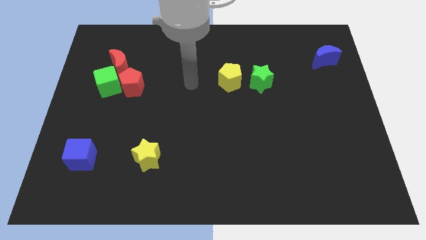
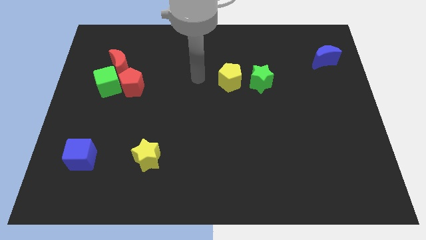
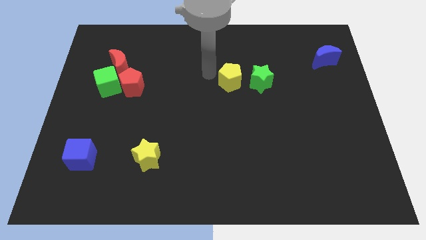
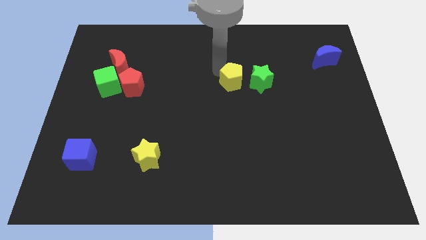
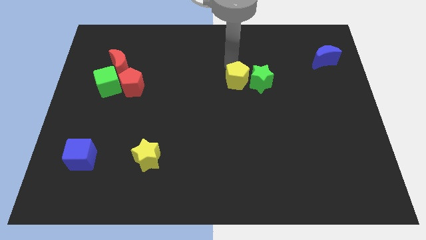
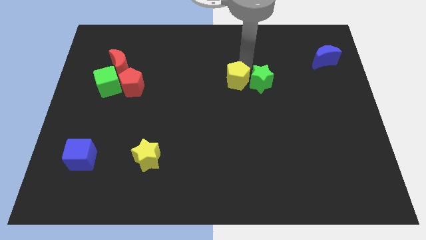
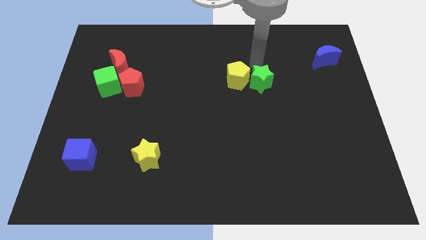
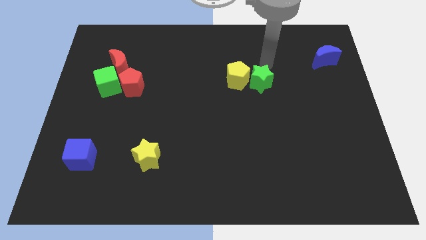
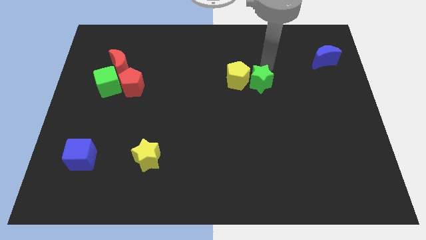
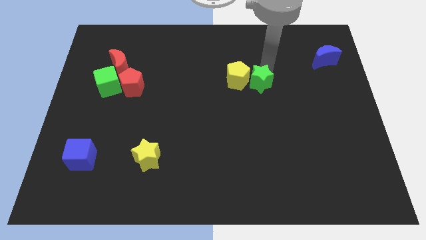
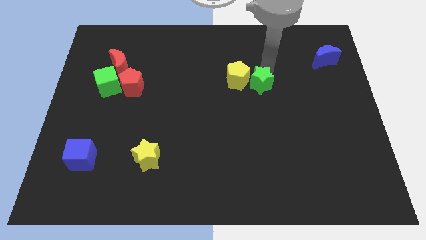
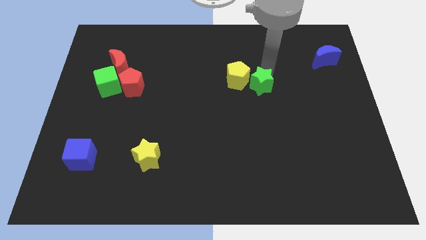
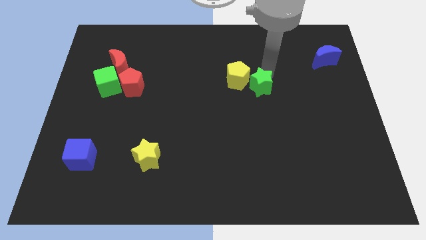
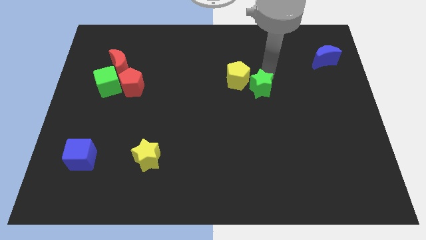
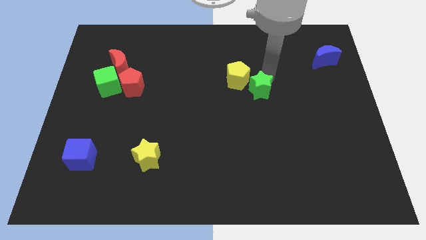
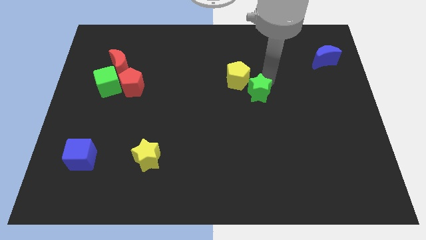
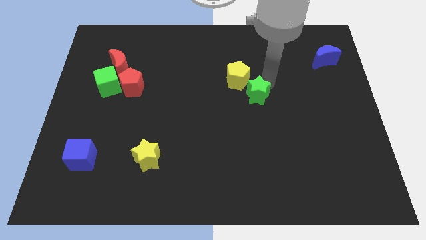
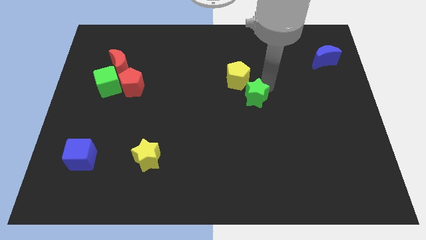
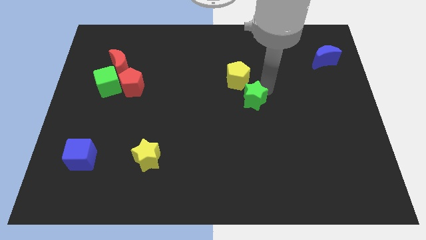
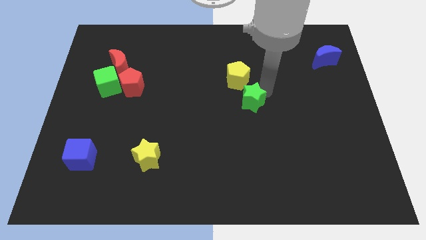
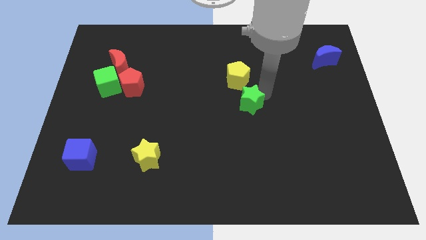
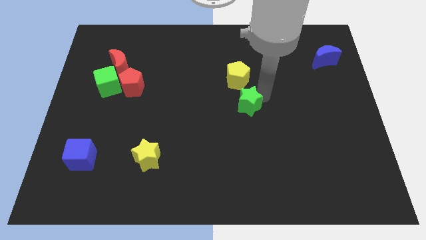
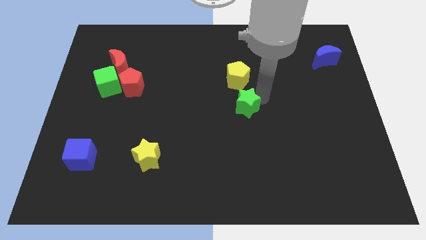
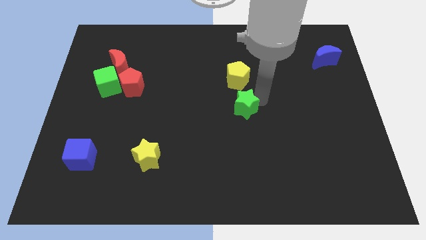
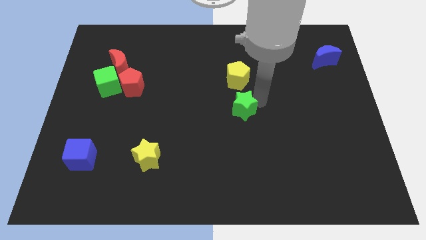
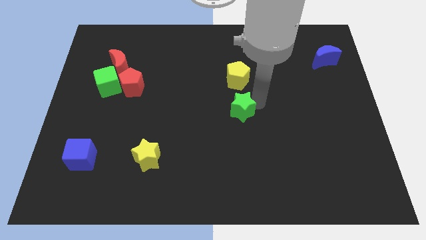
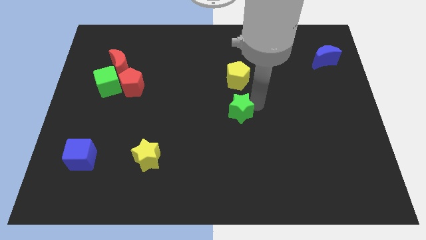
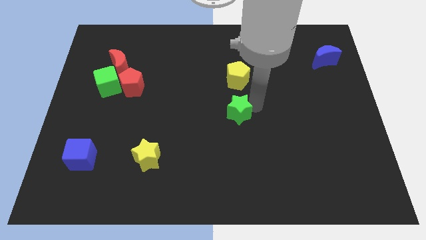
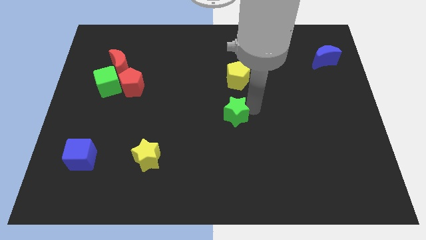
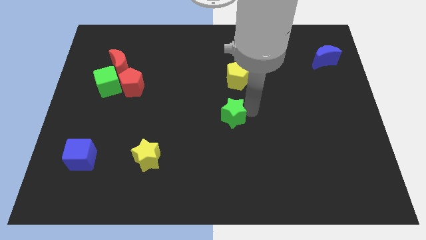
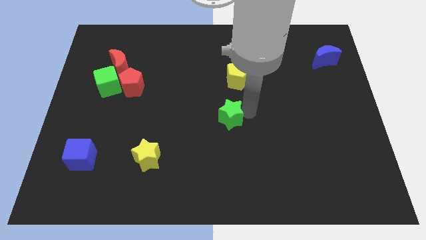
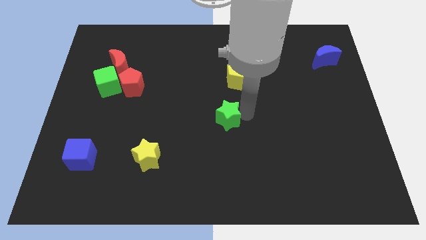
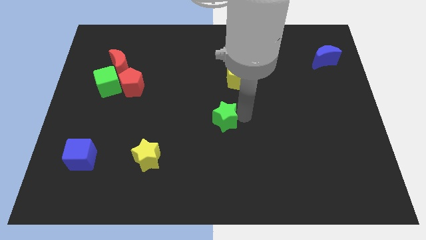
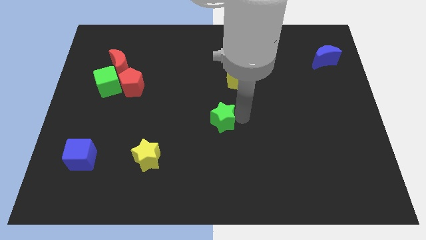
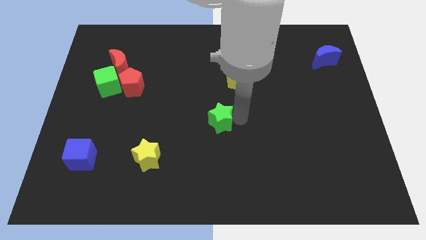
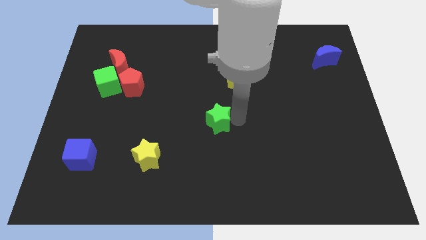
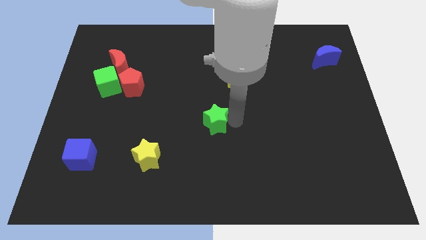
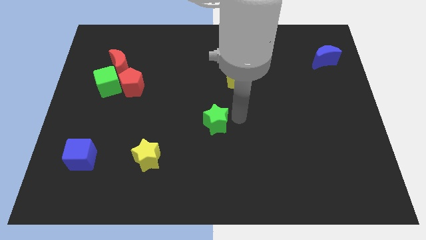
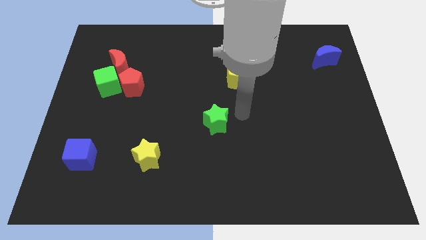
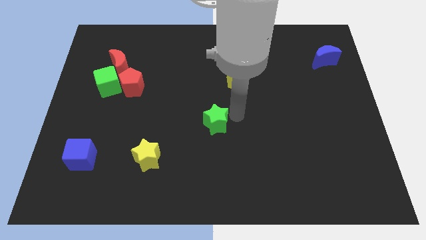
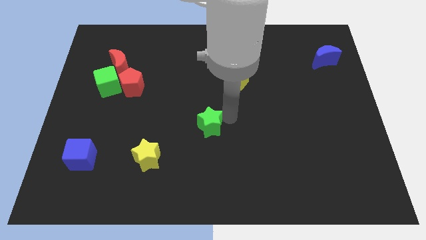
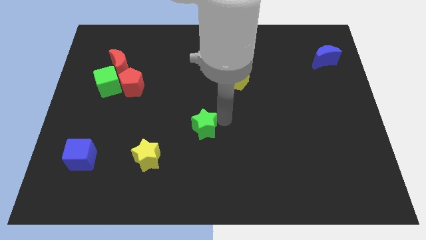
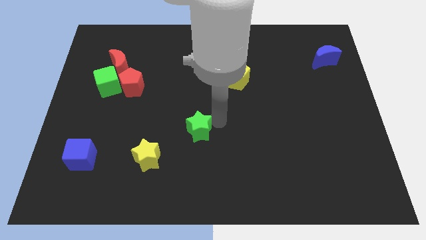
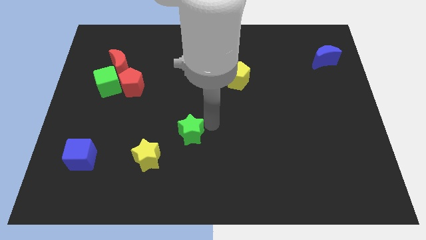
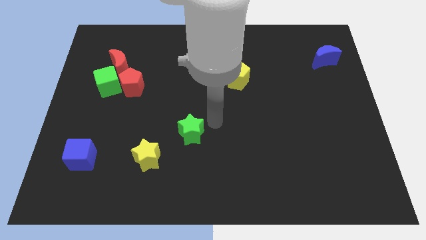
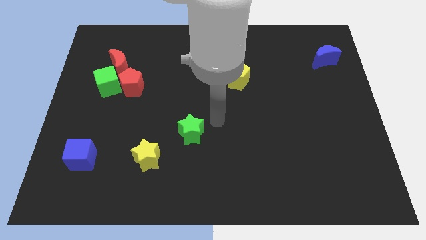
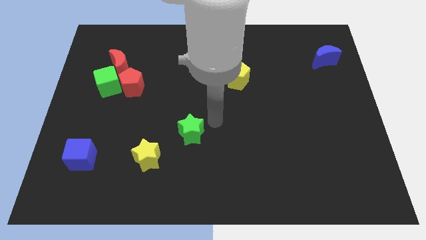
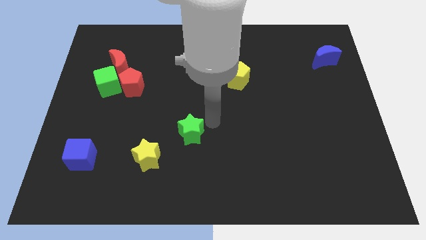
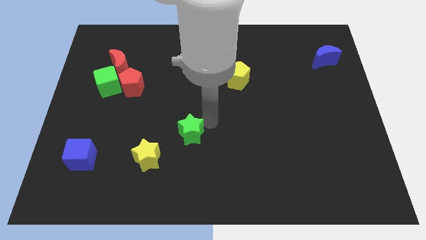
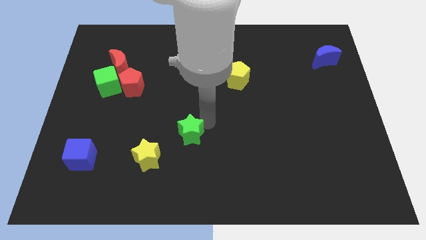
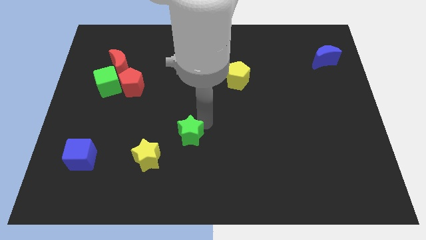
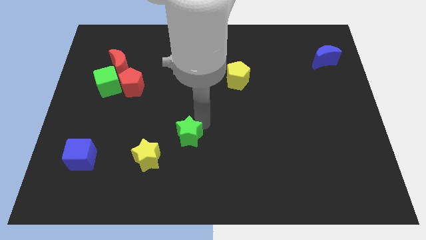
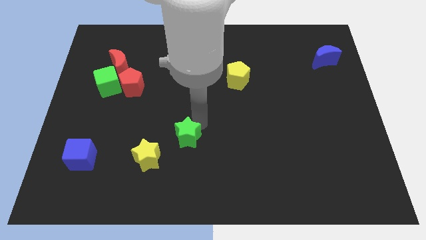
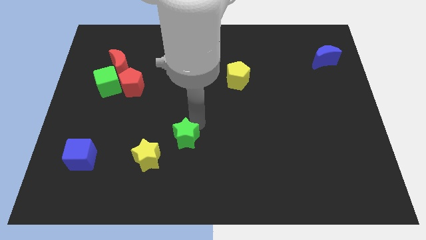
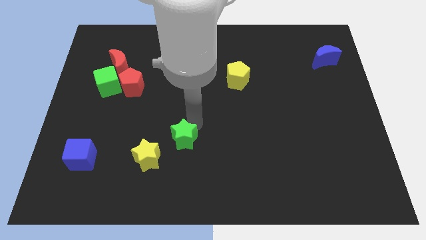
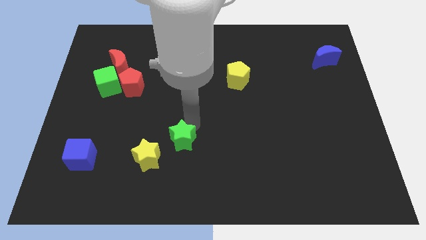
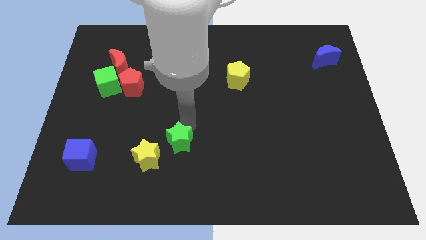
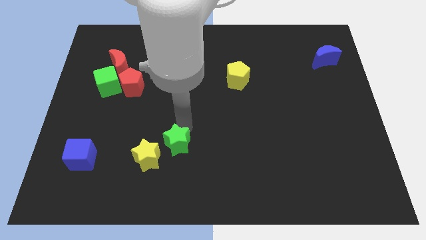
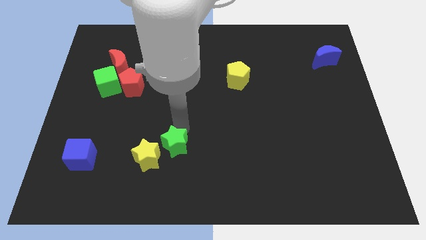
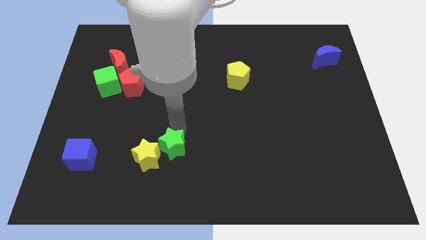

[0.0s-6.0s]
slide the green star towards the yellow star

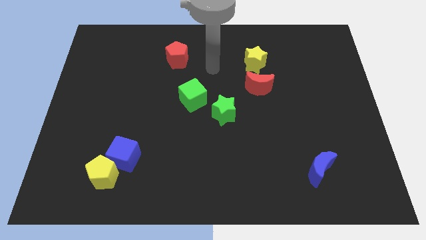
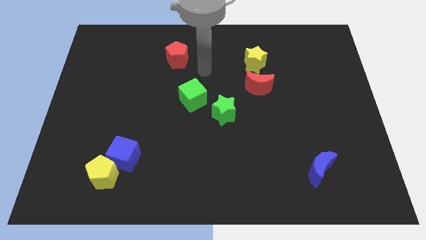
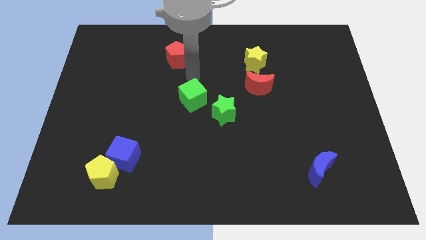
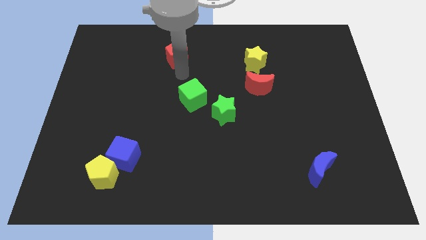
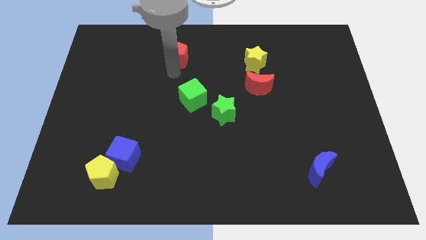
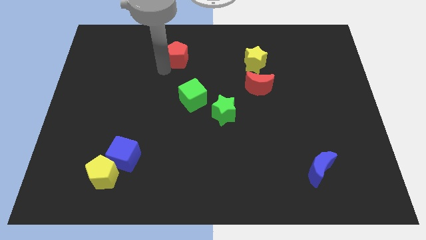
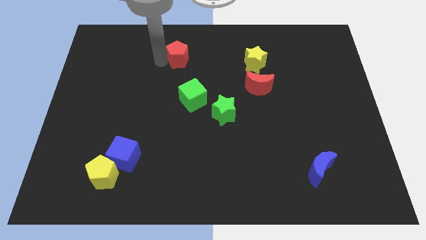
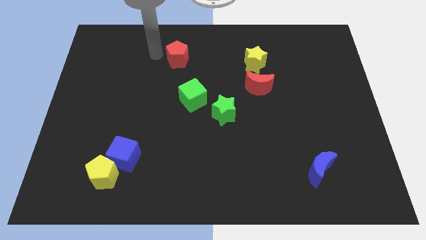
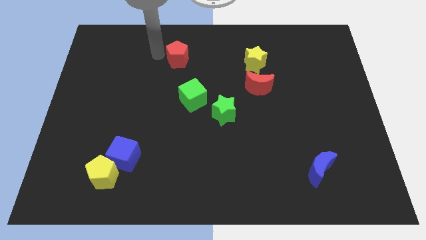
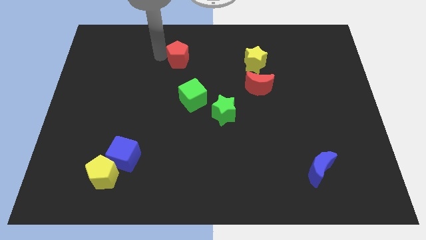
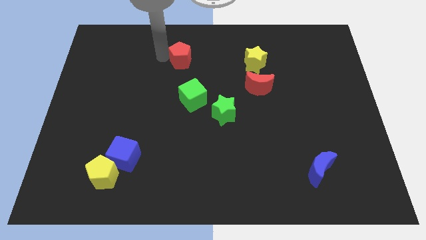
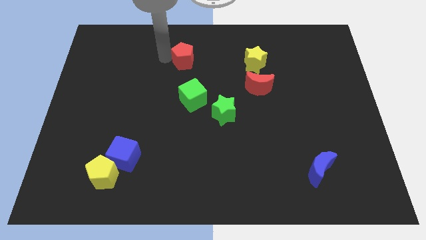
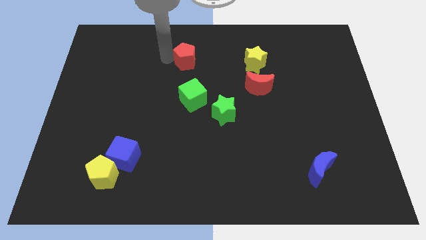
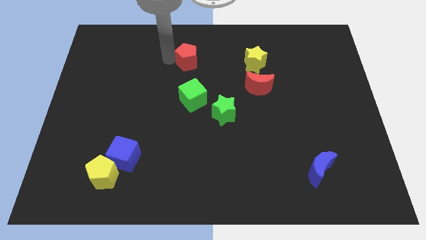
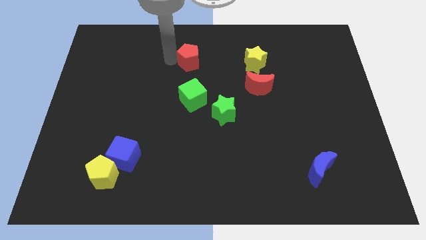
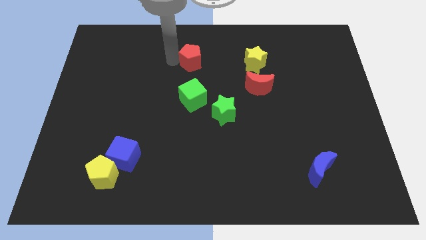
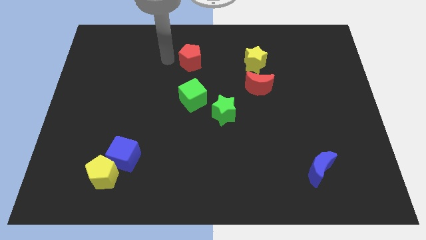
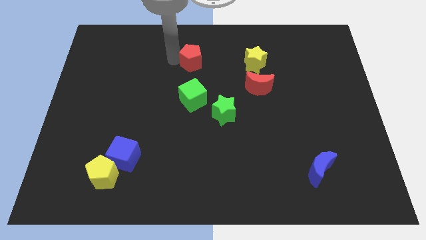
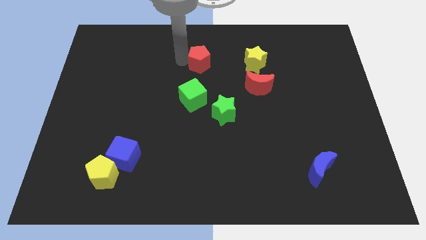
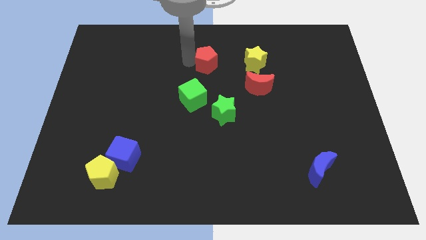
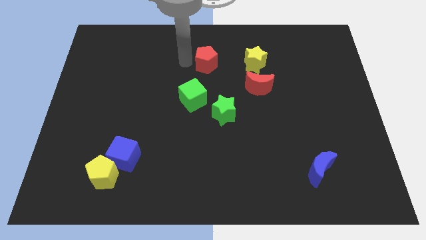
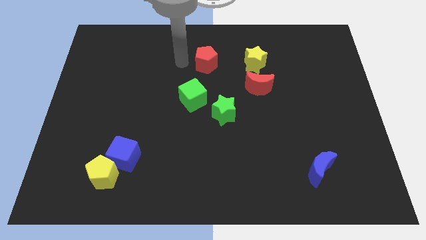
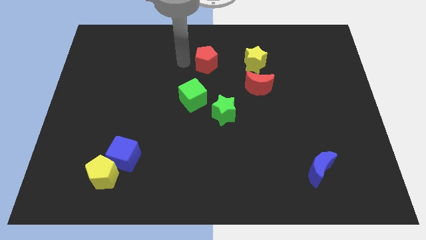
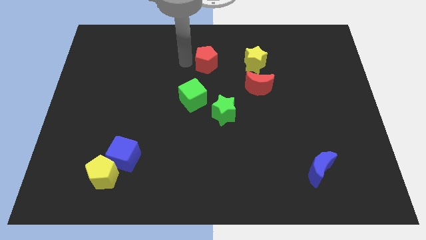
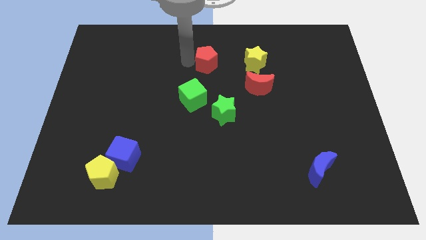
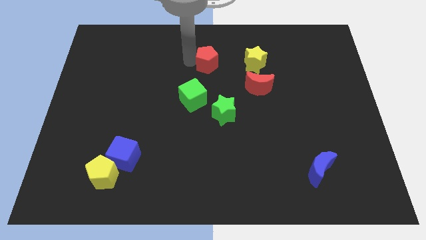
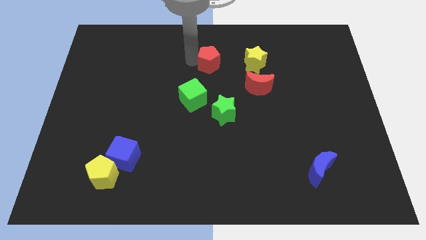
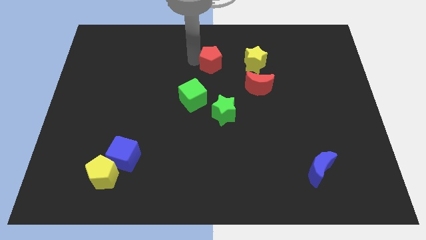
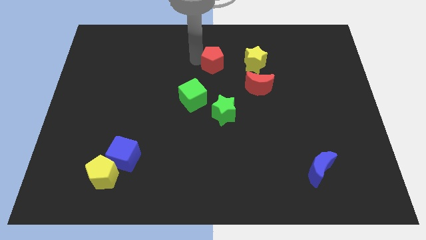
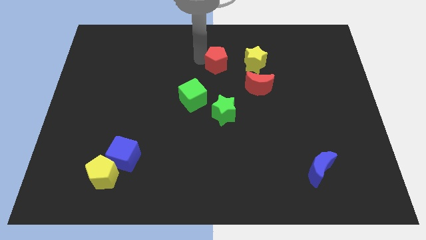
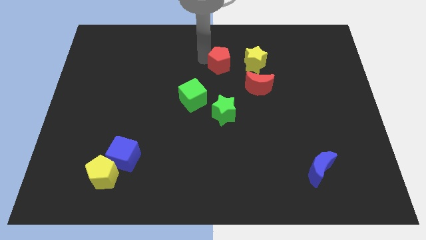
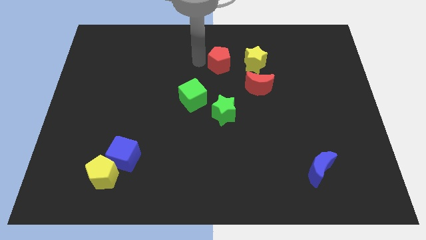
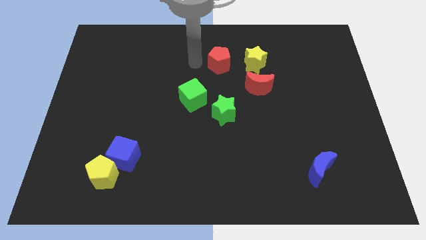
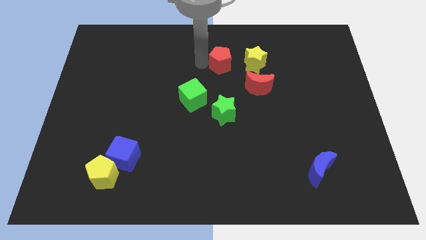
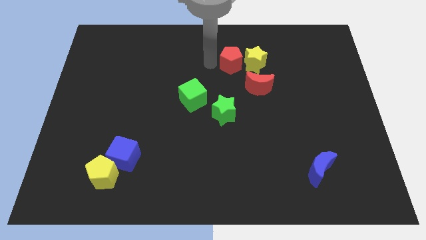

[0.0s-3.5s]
slide the red pentagon next to the yellow star
